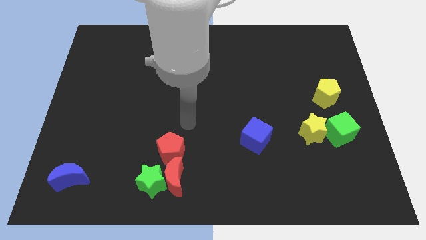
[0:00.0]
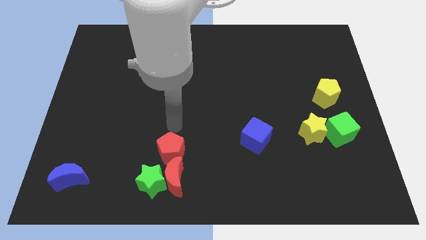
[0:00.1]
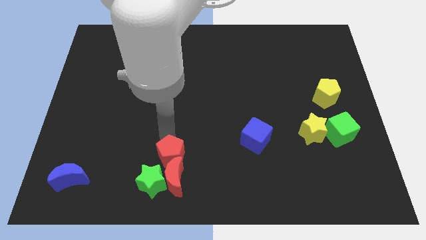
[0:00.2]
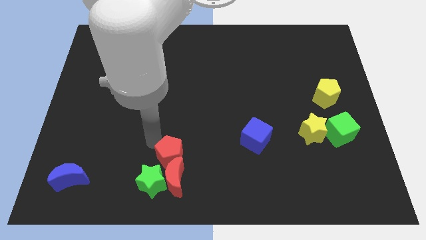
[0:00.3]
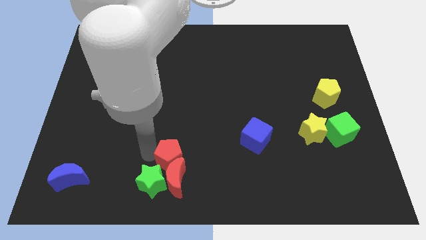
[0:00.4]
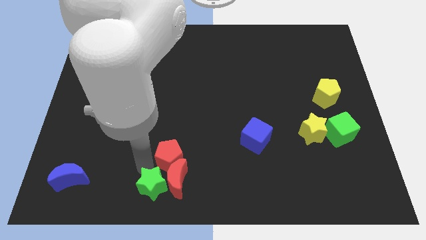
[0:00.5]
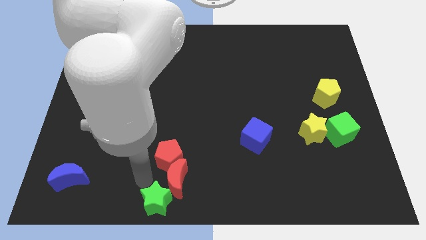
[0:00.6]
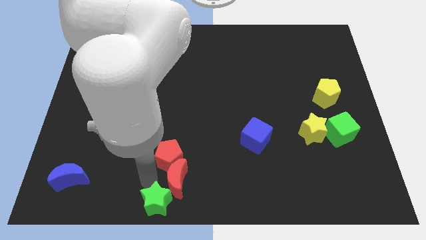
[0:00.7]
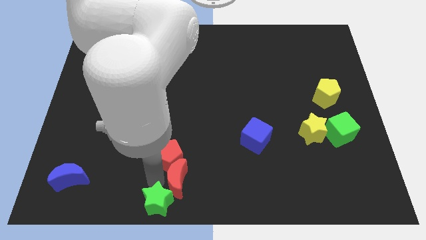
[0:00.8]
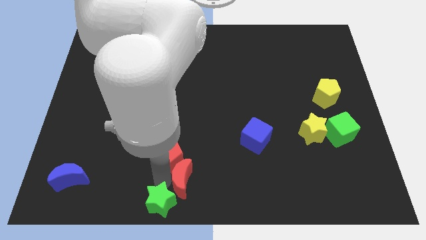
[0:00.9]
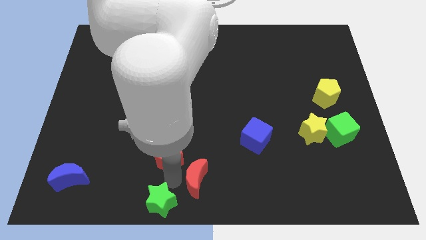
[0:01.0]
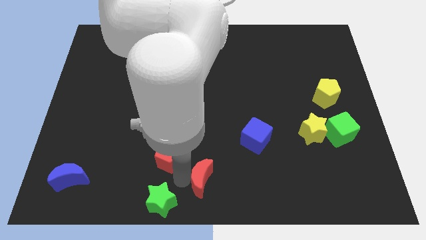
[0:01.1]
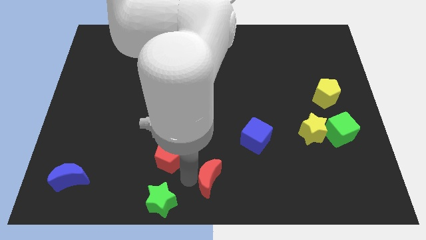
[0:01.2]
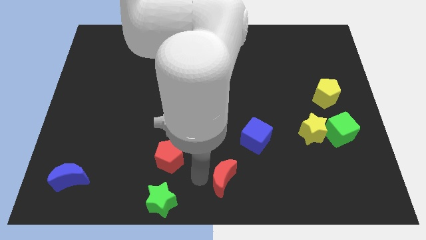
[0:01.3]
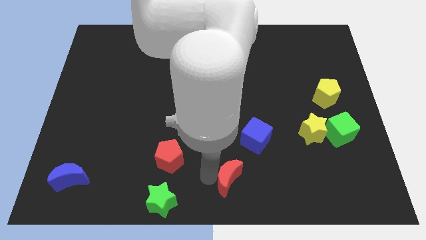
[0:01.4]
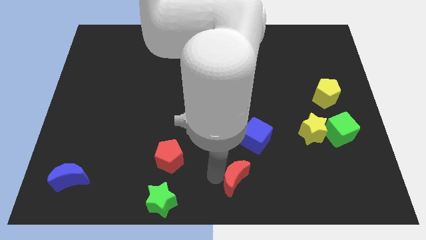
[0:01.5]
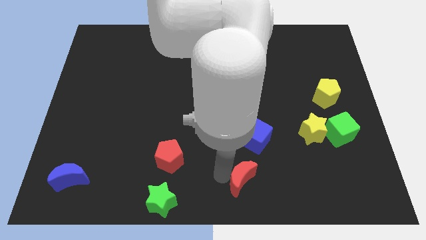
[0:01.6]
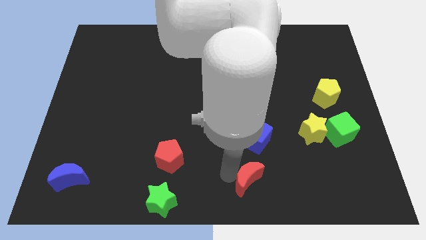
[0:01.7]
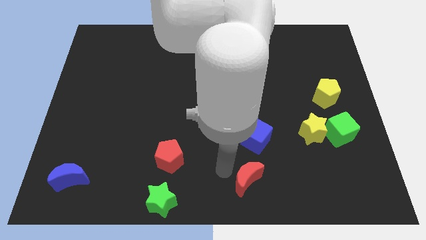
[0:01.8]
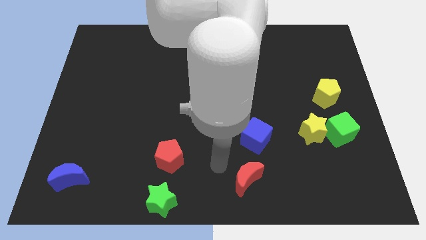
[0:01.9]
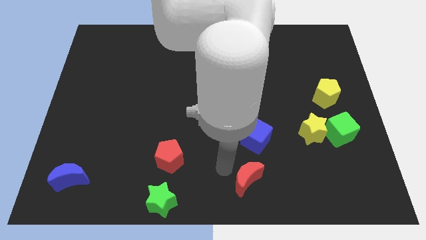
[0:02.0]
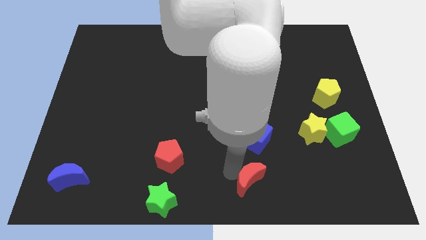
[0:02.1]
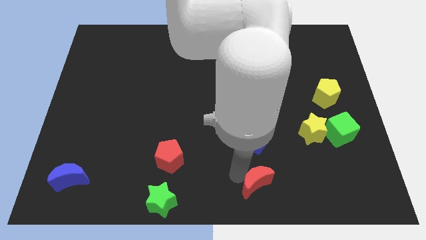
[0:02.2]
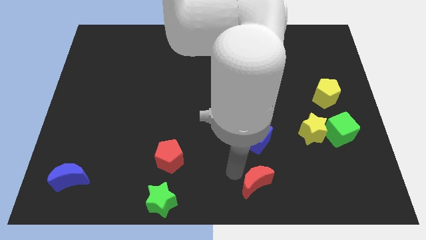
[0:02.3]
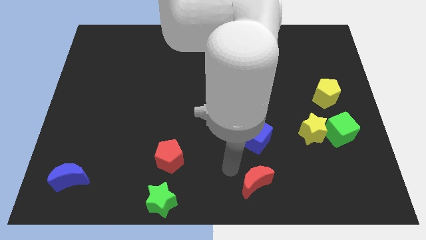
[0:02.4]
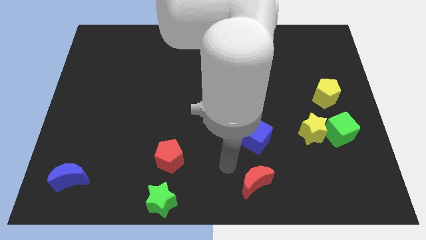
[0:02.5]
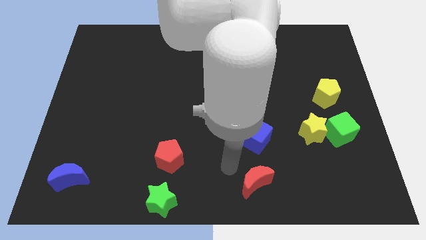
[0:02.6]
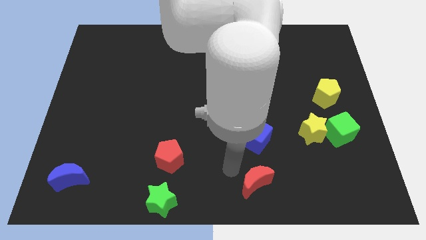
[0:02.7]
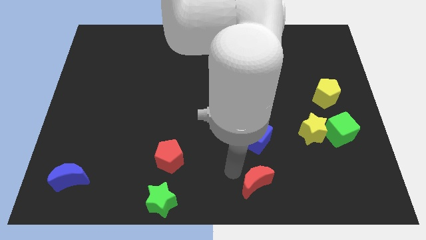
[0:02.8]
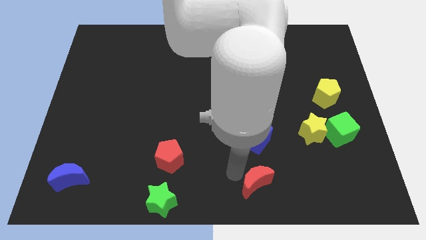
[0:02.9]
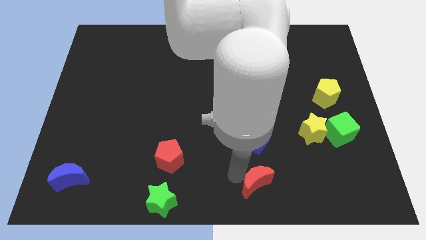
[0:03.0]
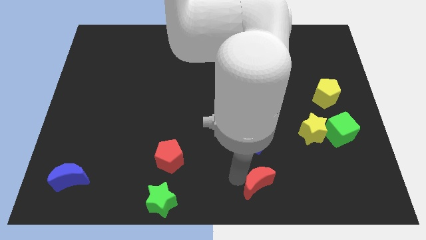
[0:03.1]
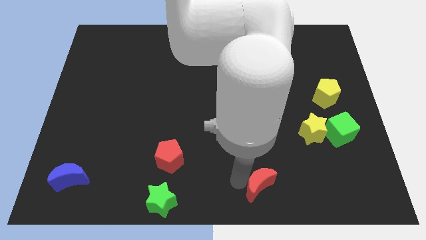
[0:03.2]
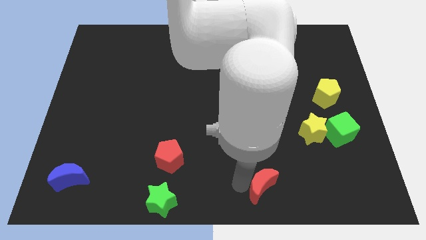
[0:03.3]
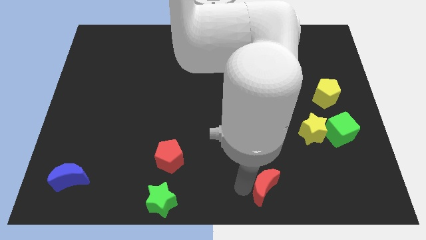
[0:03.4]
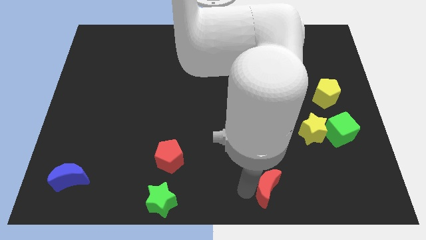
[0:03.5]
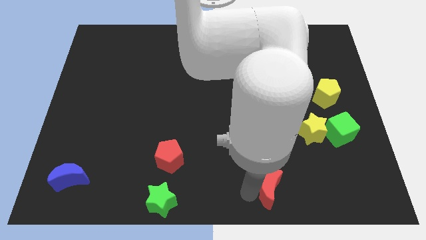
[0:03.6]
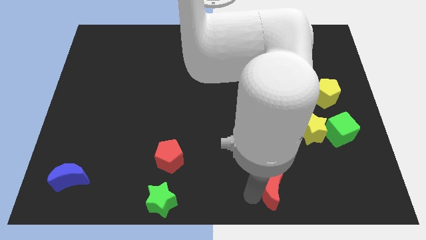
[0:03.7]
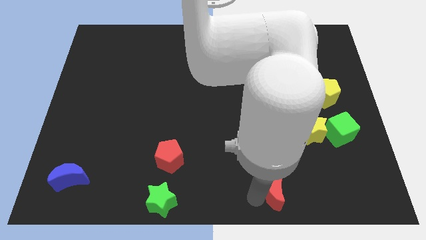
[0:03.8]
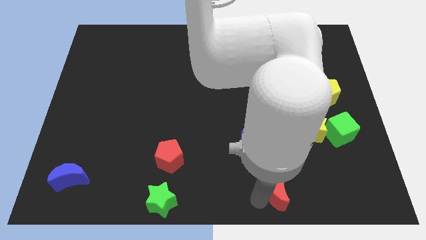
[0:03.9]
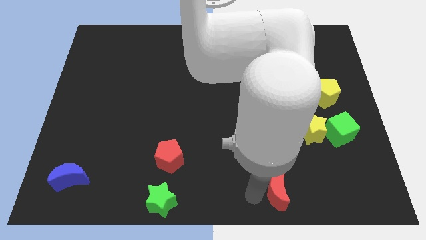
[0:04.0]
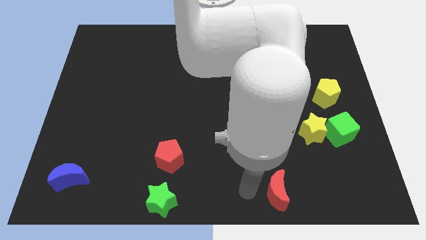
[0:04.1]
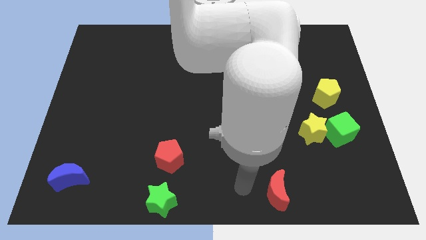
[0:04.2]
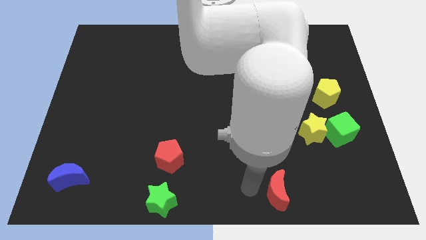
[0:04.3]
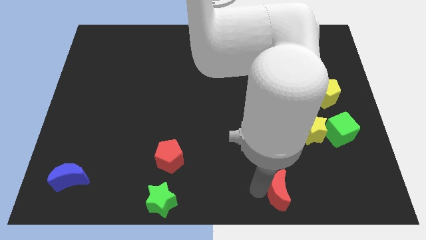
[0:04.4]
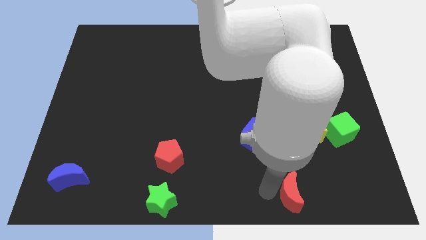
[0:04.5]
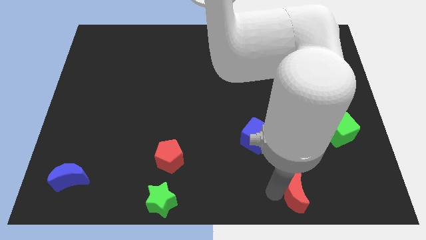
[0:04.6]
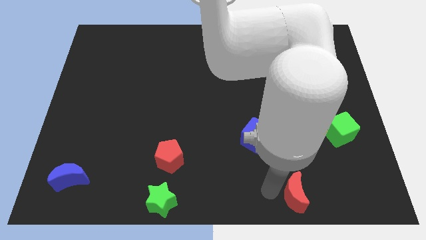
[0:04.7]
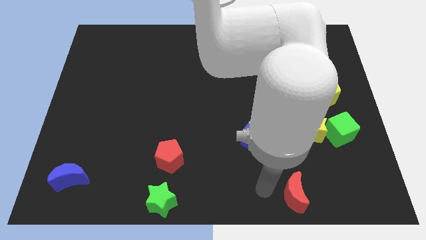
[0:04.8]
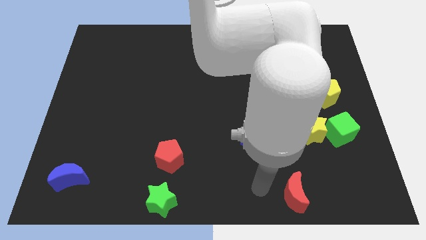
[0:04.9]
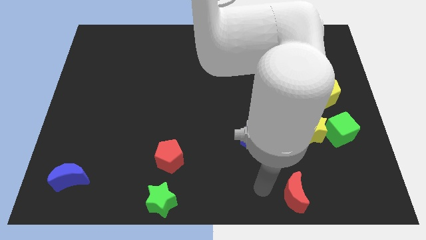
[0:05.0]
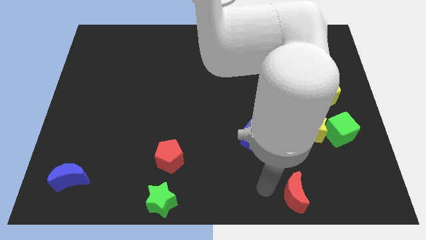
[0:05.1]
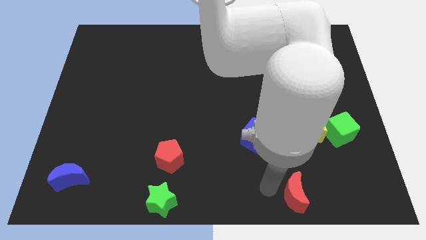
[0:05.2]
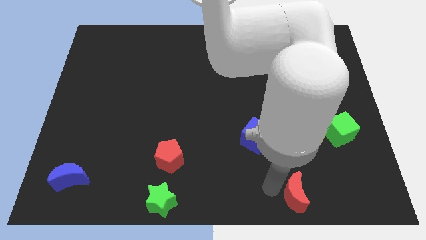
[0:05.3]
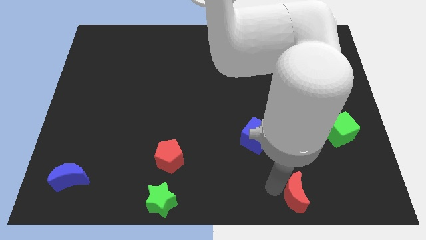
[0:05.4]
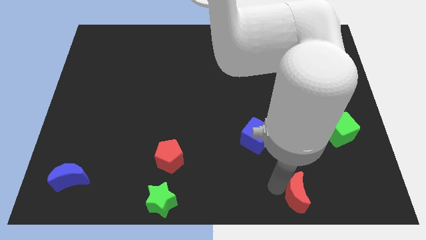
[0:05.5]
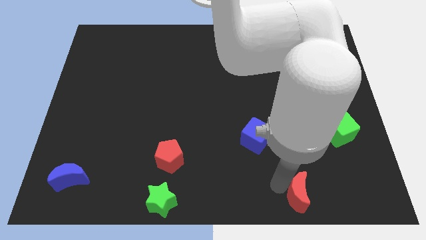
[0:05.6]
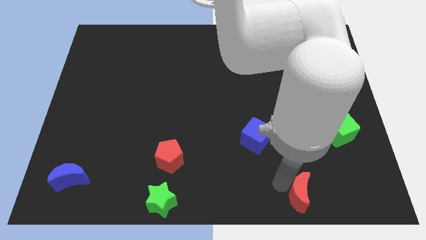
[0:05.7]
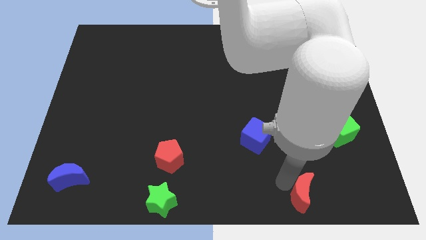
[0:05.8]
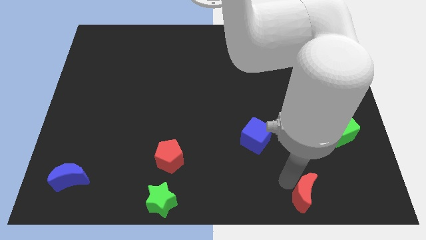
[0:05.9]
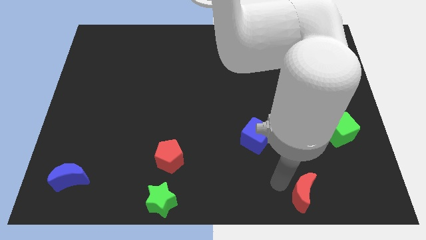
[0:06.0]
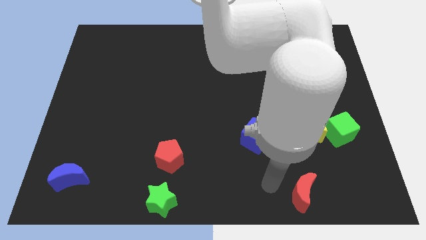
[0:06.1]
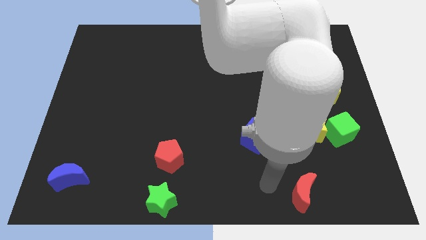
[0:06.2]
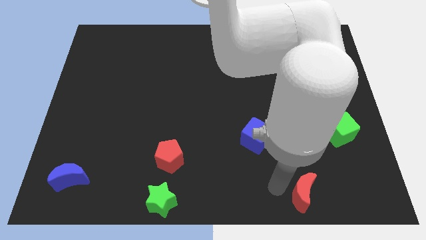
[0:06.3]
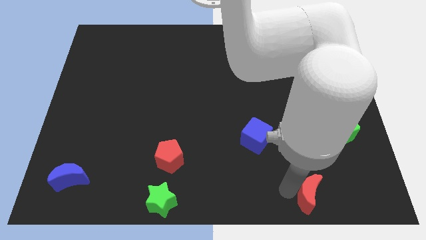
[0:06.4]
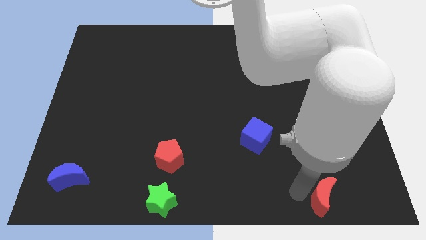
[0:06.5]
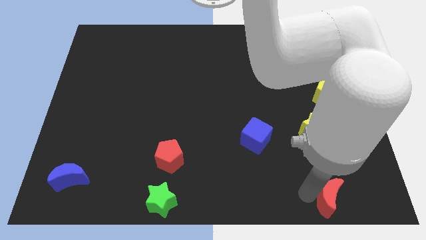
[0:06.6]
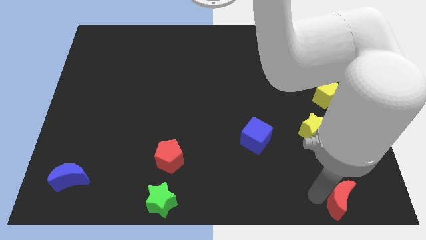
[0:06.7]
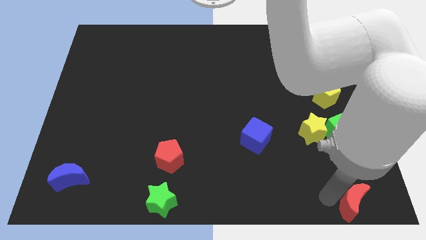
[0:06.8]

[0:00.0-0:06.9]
slide the red moon to the lower right corner
